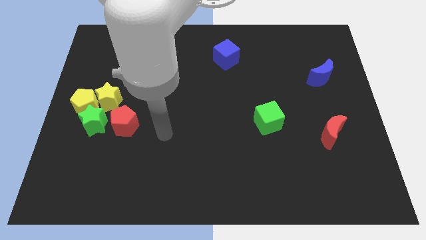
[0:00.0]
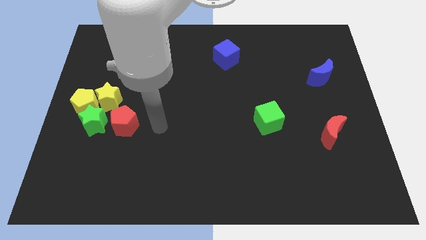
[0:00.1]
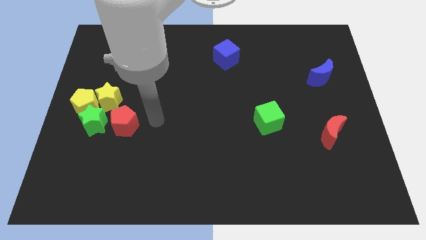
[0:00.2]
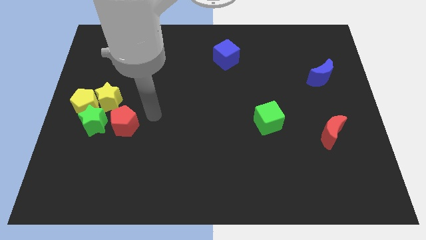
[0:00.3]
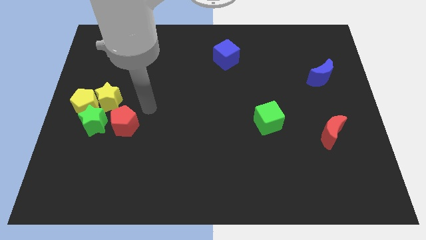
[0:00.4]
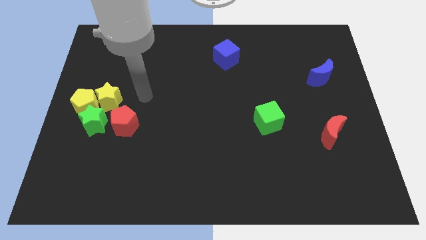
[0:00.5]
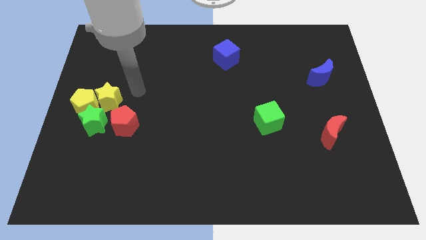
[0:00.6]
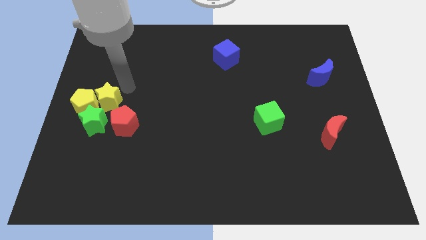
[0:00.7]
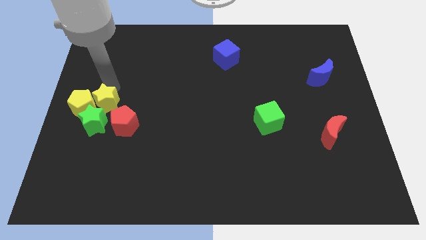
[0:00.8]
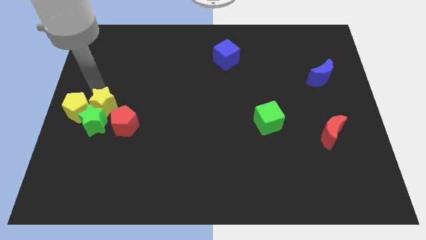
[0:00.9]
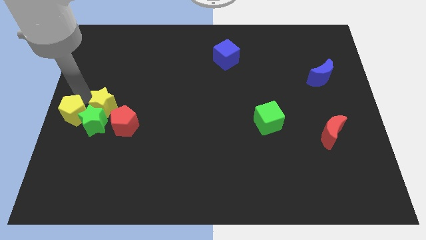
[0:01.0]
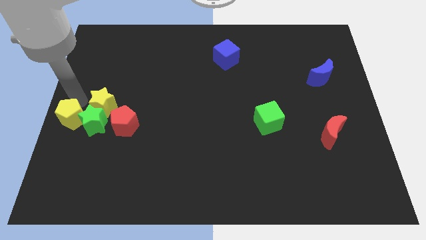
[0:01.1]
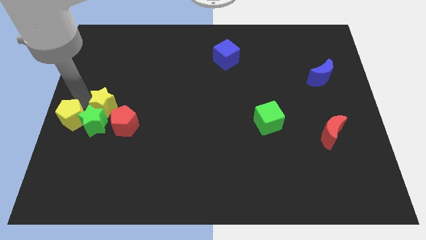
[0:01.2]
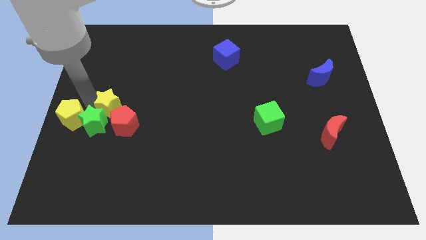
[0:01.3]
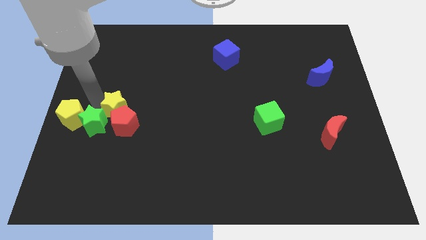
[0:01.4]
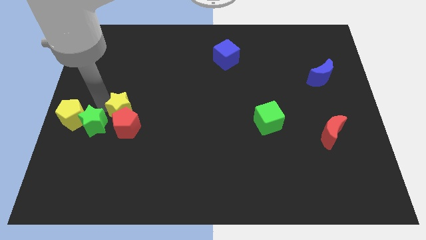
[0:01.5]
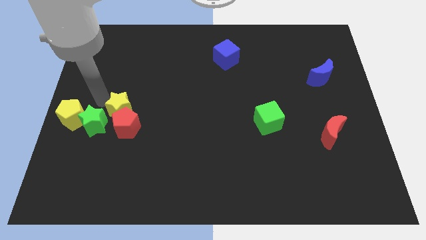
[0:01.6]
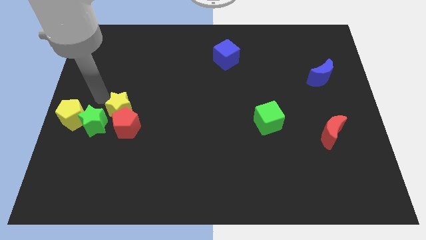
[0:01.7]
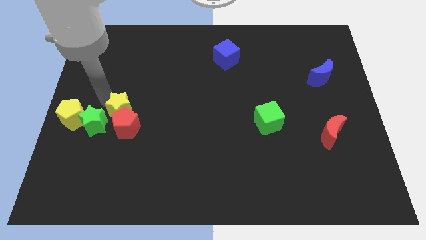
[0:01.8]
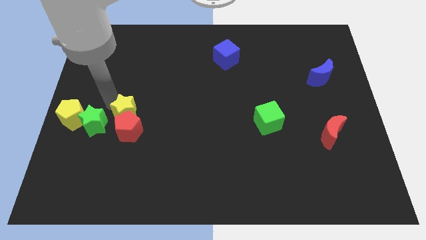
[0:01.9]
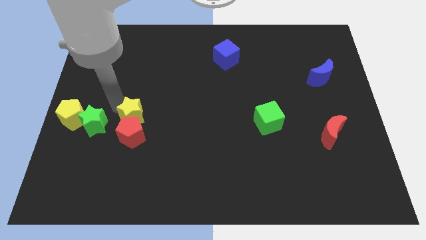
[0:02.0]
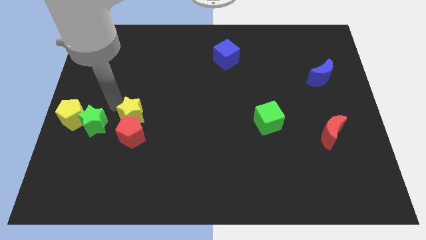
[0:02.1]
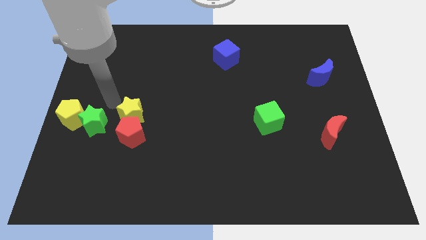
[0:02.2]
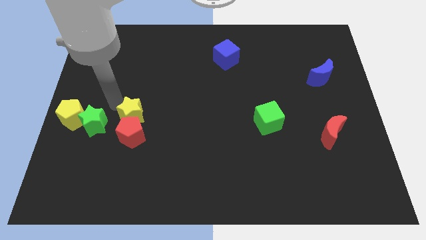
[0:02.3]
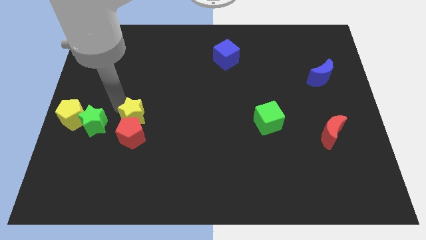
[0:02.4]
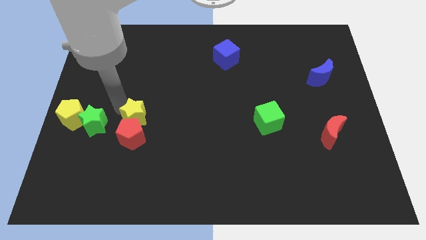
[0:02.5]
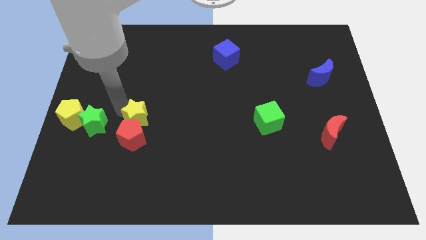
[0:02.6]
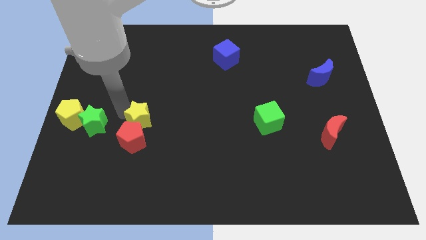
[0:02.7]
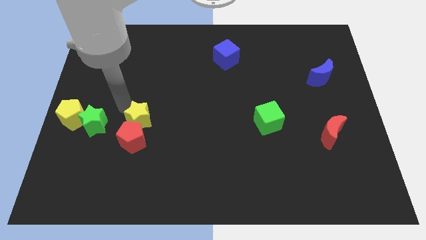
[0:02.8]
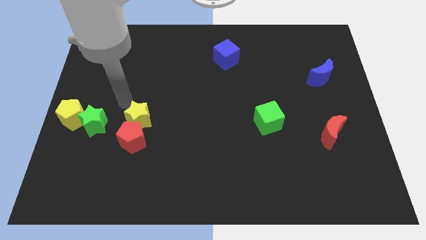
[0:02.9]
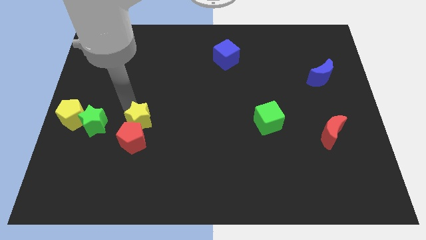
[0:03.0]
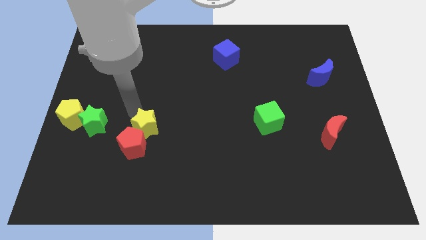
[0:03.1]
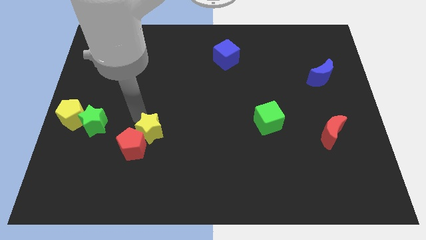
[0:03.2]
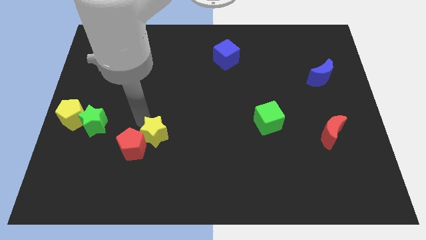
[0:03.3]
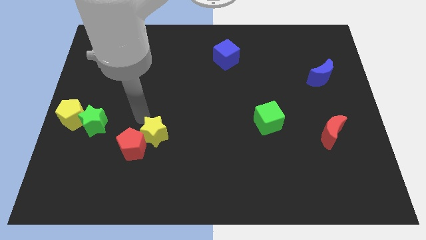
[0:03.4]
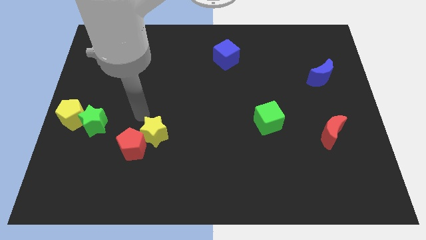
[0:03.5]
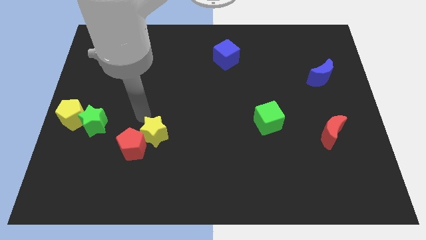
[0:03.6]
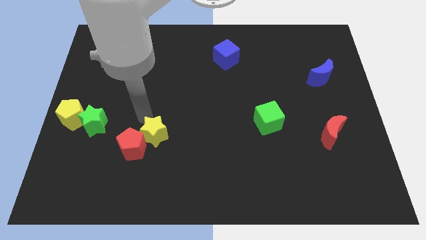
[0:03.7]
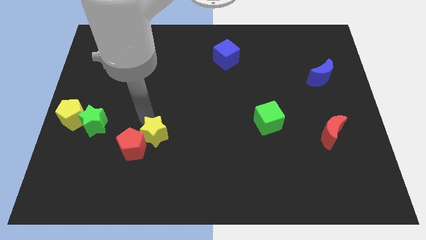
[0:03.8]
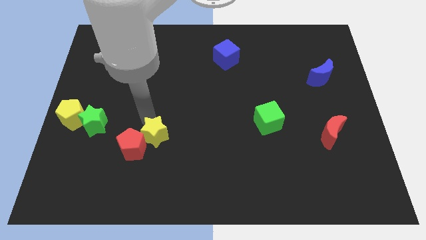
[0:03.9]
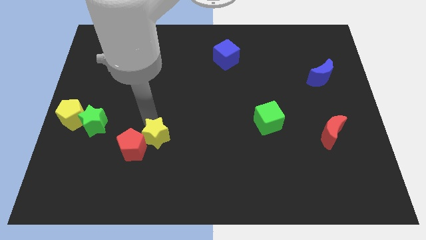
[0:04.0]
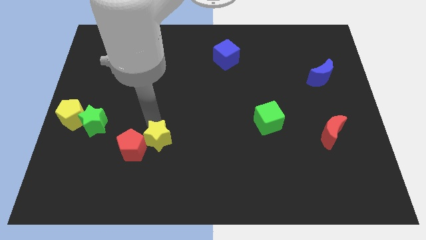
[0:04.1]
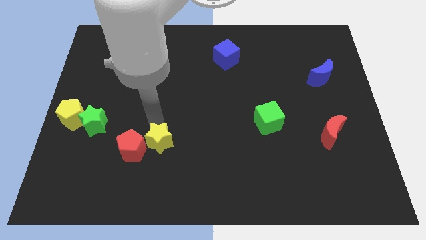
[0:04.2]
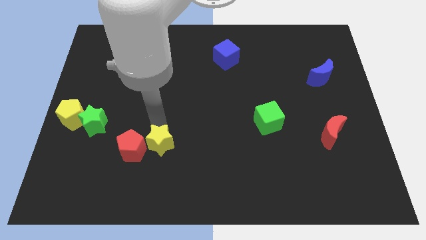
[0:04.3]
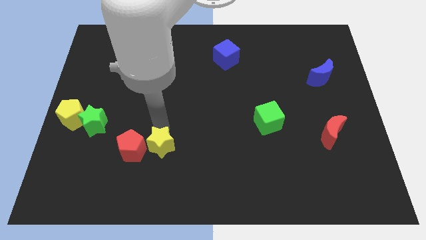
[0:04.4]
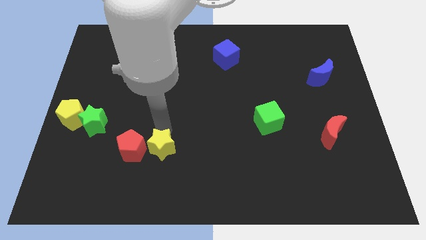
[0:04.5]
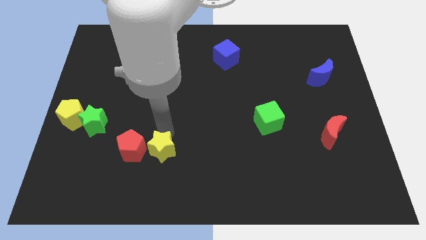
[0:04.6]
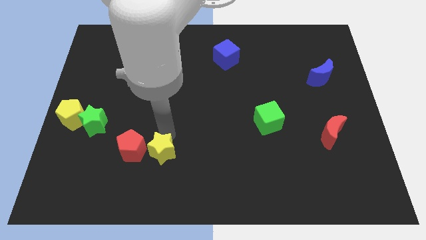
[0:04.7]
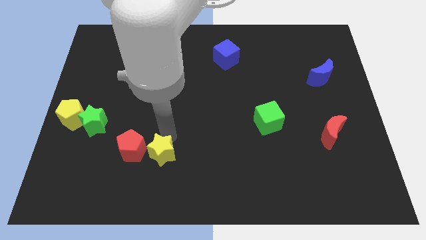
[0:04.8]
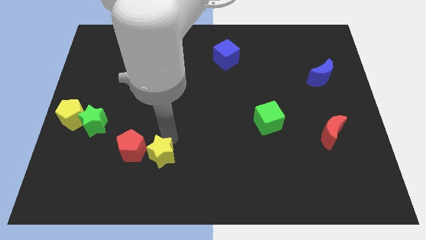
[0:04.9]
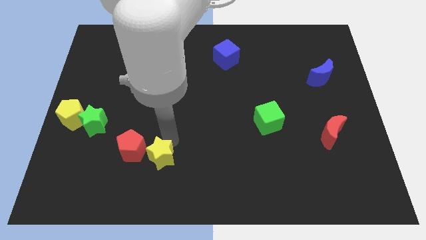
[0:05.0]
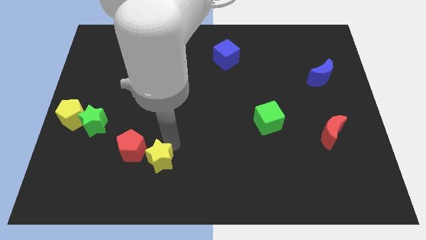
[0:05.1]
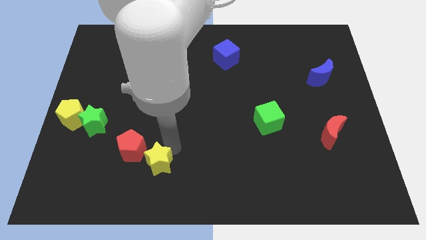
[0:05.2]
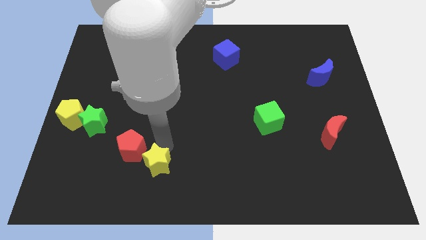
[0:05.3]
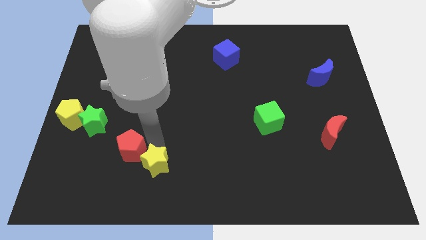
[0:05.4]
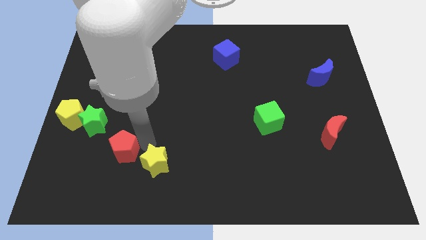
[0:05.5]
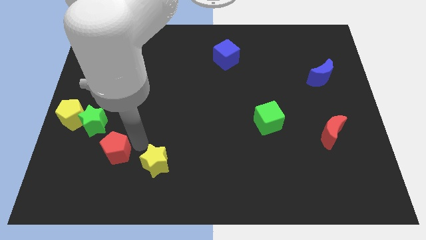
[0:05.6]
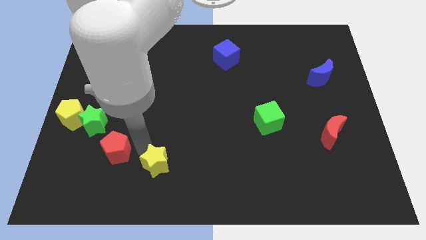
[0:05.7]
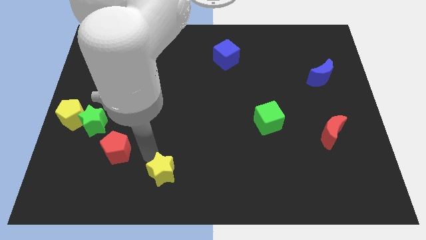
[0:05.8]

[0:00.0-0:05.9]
slide the yellow star to the bottom side

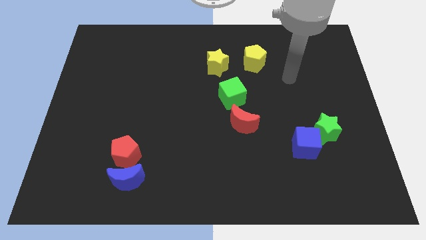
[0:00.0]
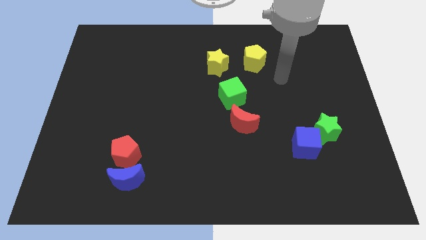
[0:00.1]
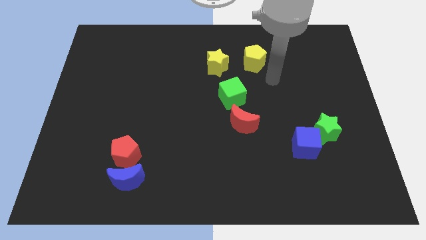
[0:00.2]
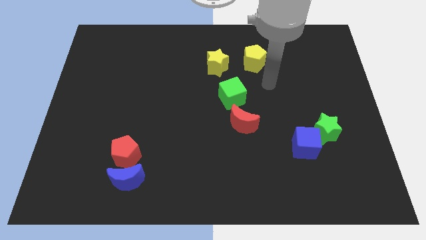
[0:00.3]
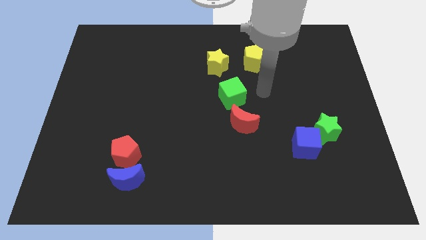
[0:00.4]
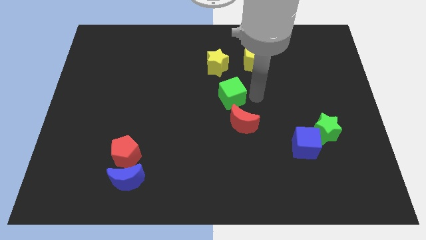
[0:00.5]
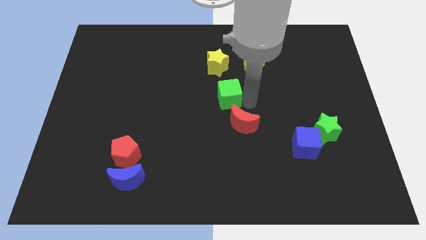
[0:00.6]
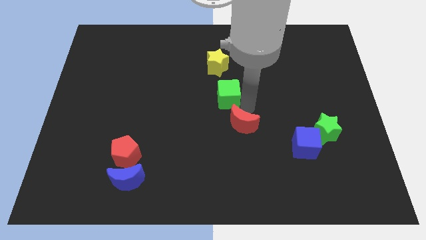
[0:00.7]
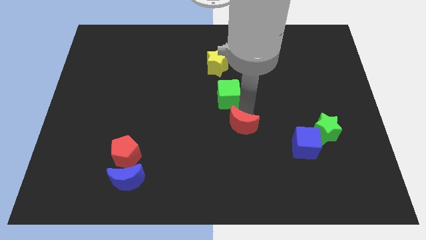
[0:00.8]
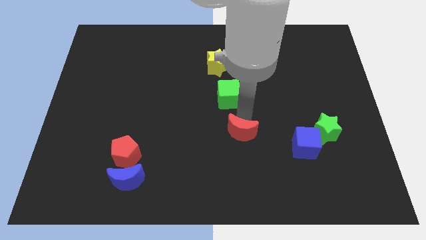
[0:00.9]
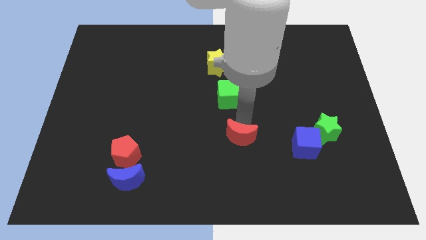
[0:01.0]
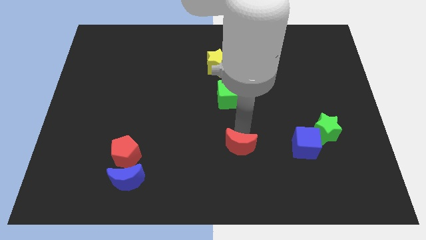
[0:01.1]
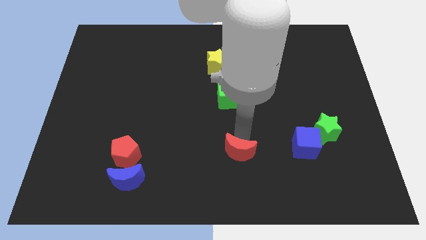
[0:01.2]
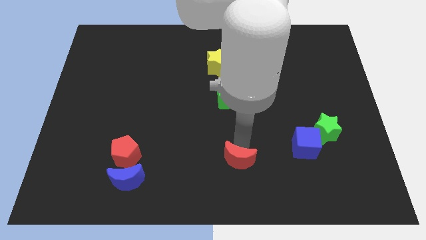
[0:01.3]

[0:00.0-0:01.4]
move the red moon to the bottom
